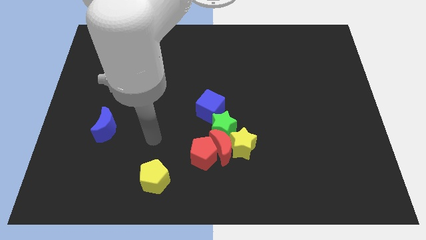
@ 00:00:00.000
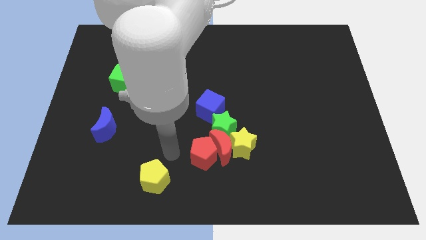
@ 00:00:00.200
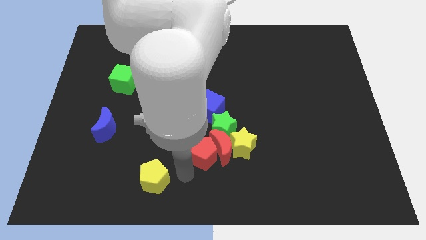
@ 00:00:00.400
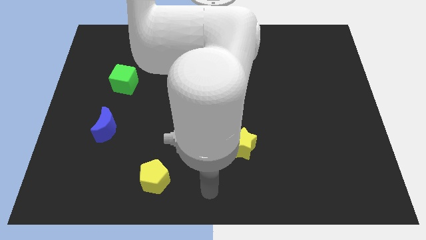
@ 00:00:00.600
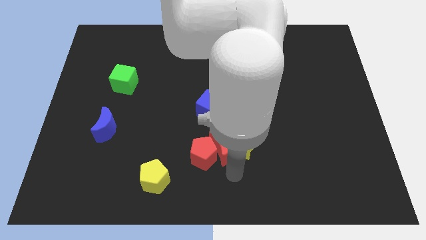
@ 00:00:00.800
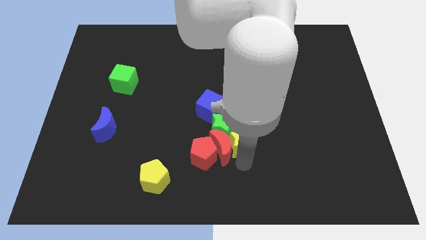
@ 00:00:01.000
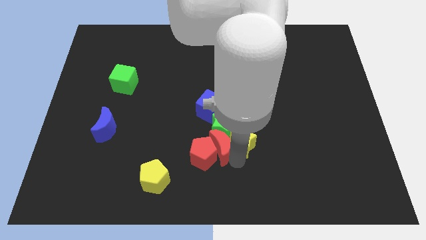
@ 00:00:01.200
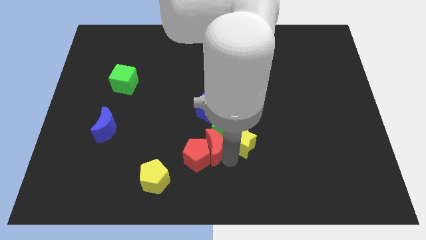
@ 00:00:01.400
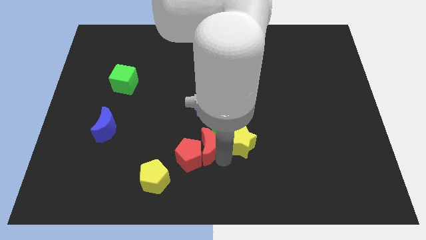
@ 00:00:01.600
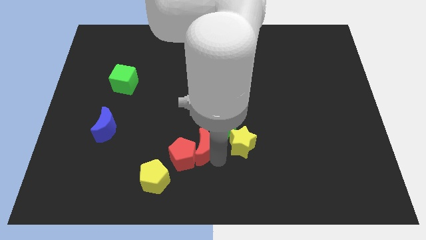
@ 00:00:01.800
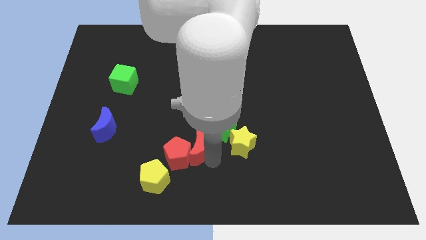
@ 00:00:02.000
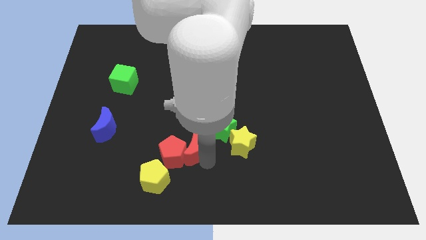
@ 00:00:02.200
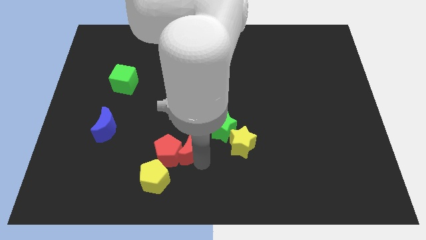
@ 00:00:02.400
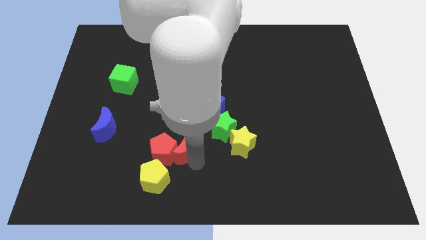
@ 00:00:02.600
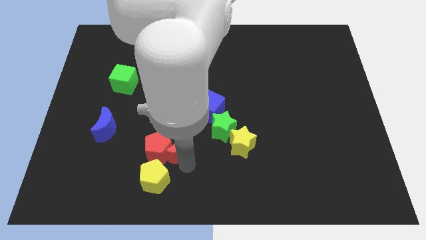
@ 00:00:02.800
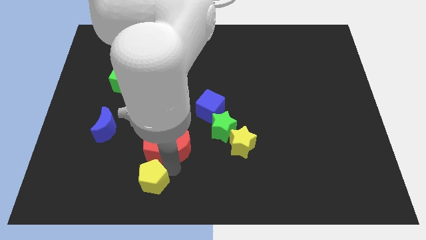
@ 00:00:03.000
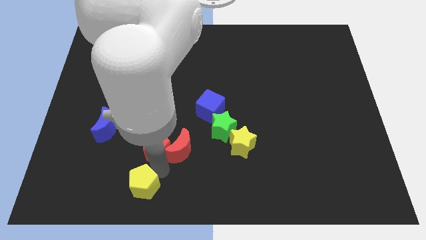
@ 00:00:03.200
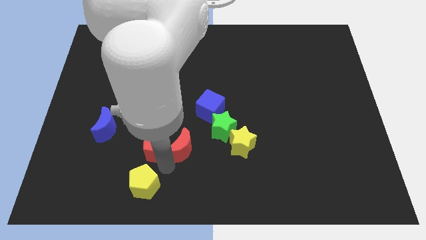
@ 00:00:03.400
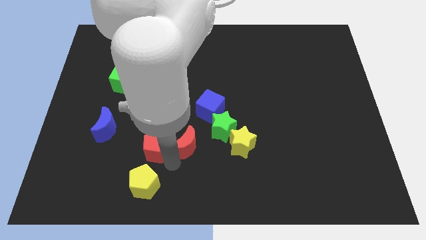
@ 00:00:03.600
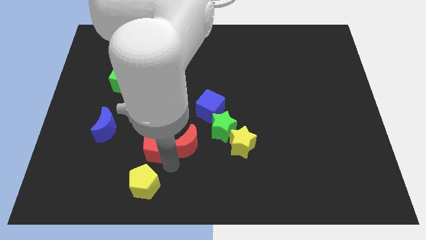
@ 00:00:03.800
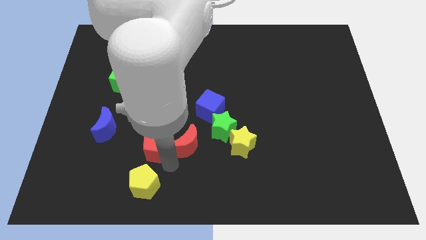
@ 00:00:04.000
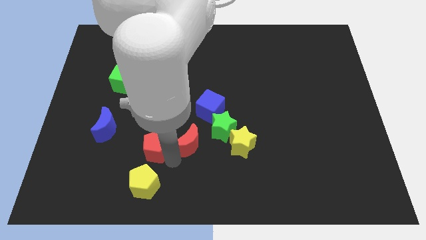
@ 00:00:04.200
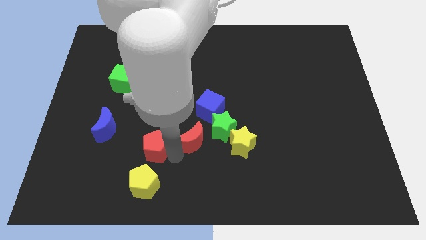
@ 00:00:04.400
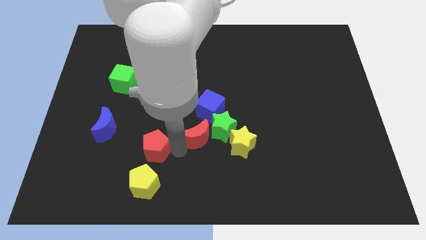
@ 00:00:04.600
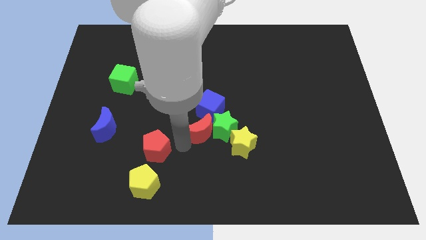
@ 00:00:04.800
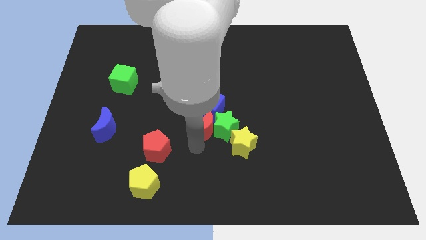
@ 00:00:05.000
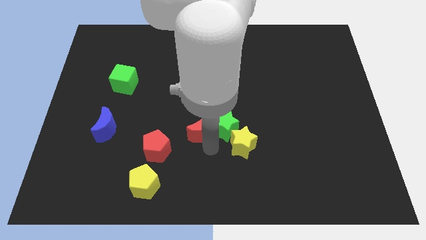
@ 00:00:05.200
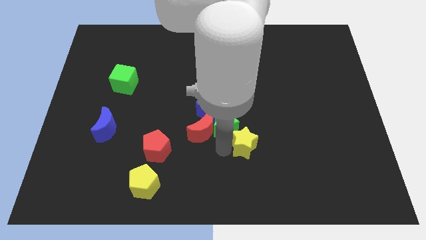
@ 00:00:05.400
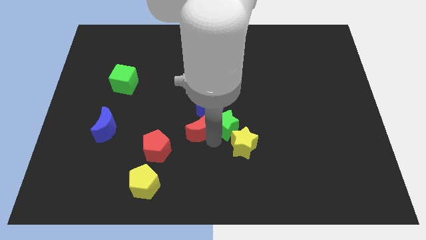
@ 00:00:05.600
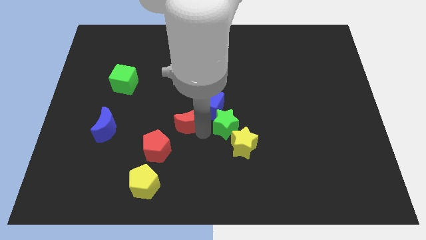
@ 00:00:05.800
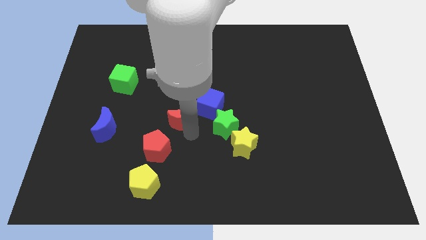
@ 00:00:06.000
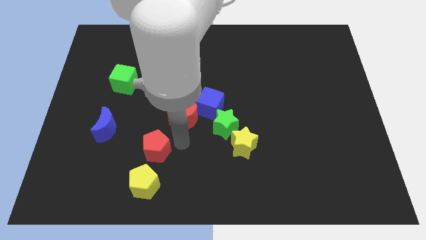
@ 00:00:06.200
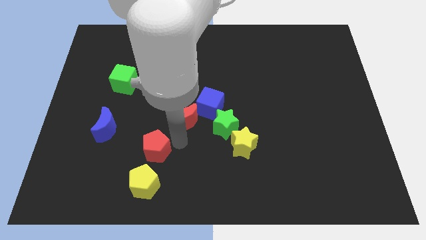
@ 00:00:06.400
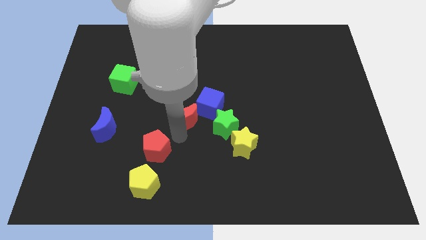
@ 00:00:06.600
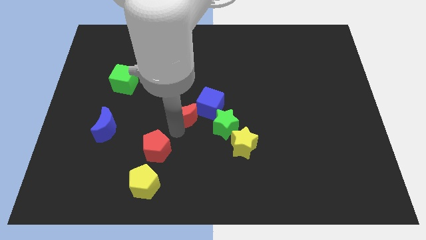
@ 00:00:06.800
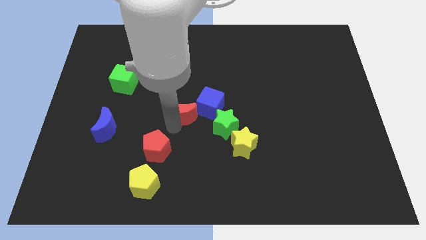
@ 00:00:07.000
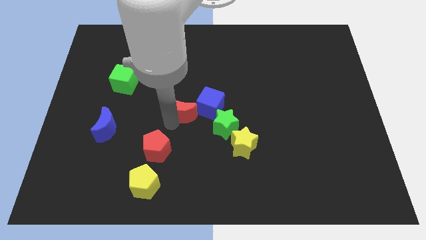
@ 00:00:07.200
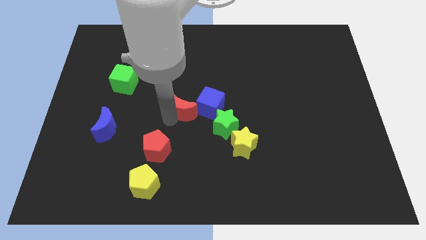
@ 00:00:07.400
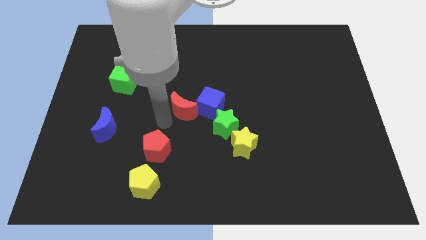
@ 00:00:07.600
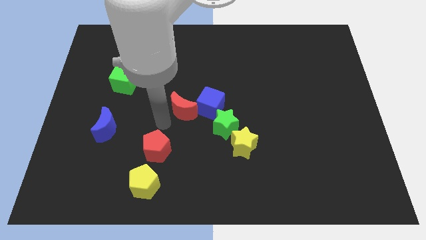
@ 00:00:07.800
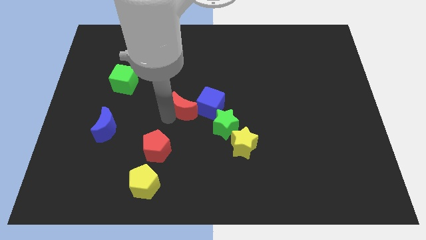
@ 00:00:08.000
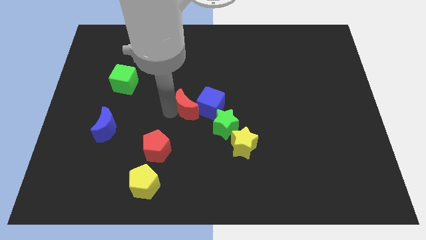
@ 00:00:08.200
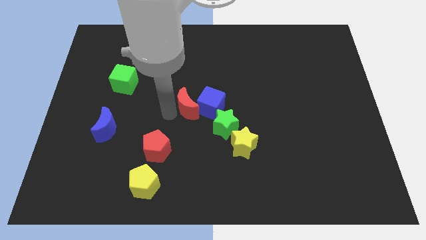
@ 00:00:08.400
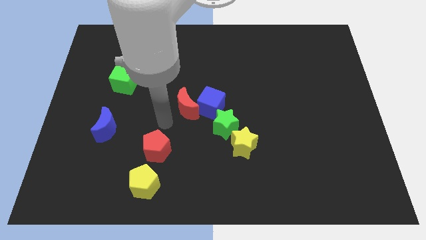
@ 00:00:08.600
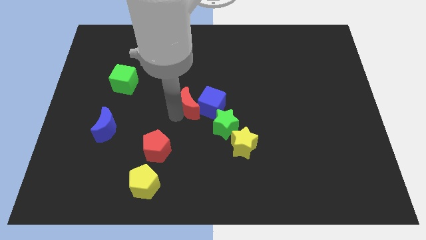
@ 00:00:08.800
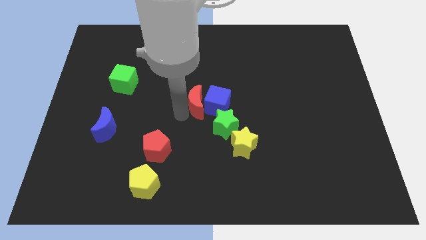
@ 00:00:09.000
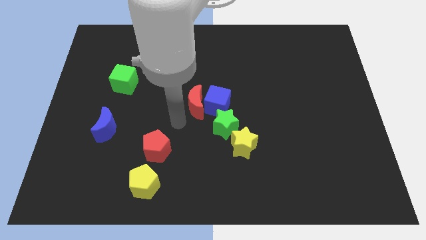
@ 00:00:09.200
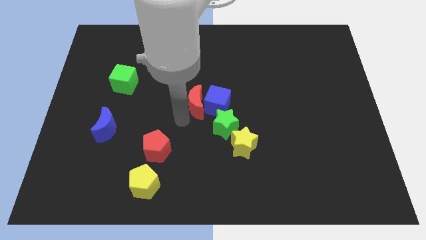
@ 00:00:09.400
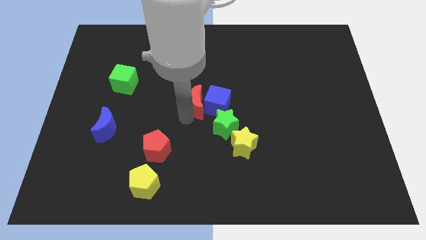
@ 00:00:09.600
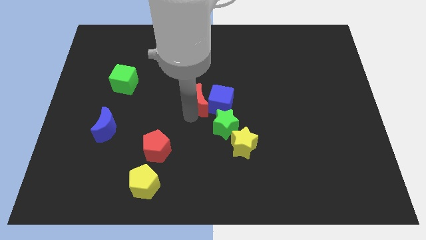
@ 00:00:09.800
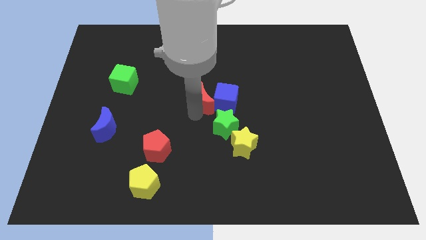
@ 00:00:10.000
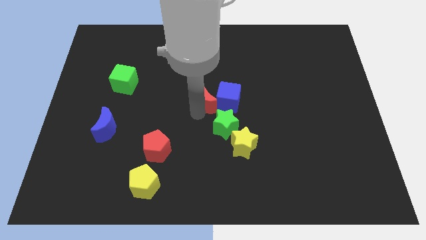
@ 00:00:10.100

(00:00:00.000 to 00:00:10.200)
put the red moon above the green star

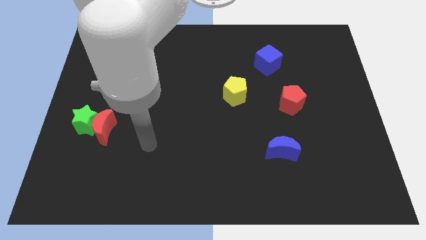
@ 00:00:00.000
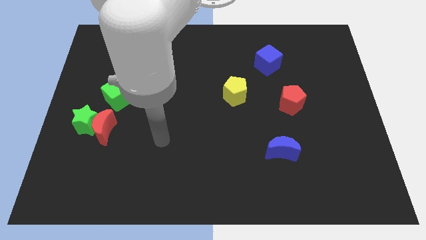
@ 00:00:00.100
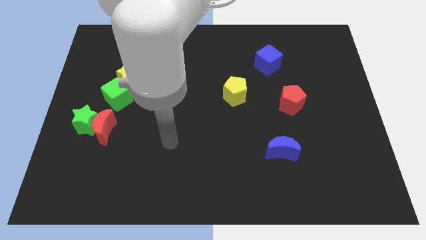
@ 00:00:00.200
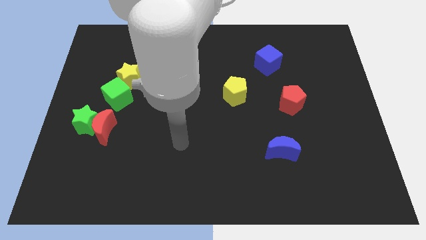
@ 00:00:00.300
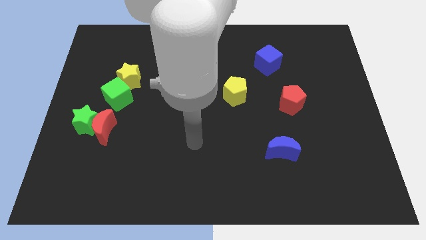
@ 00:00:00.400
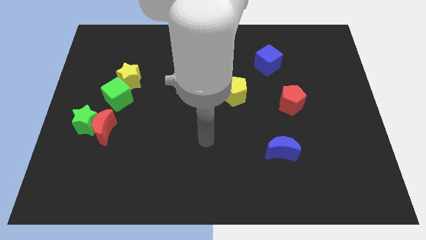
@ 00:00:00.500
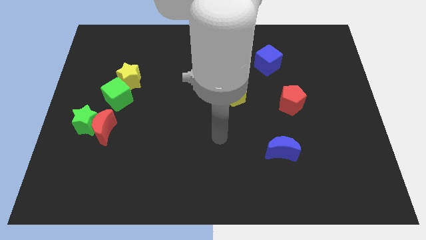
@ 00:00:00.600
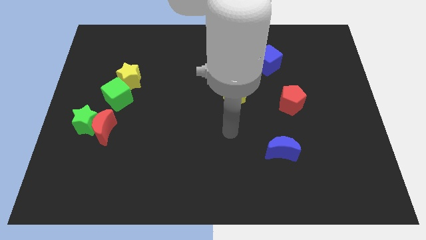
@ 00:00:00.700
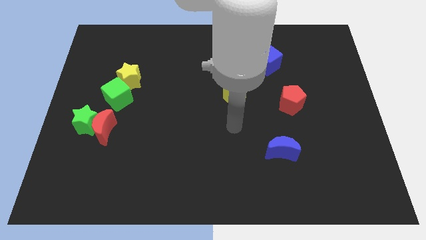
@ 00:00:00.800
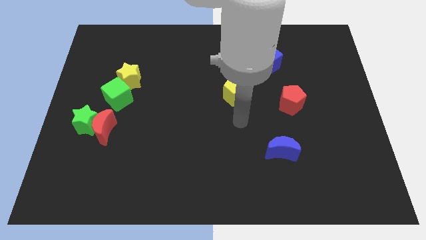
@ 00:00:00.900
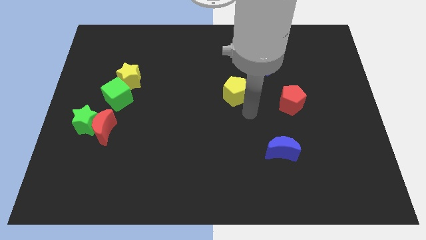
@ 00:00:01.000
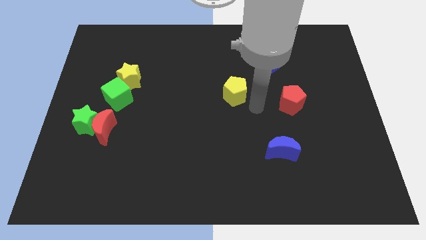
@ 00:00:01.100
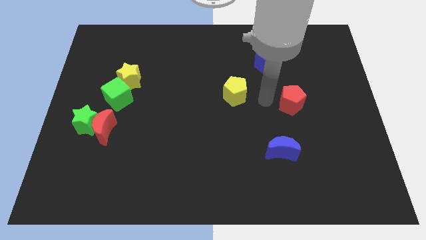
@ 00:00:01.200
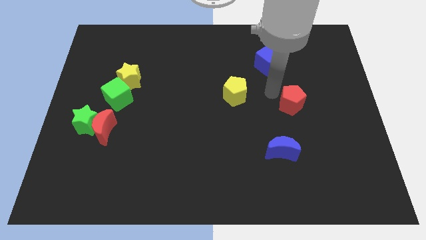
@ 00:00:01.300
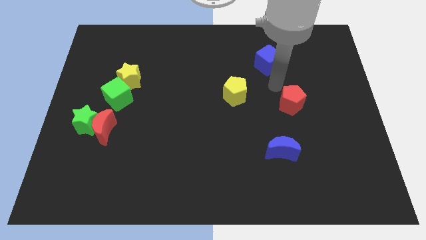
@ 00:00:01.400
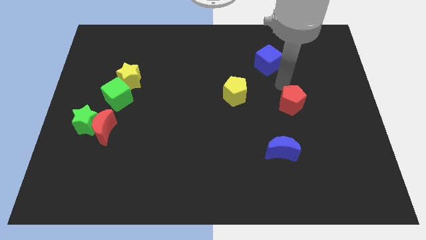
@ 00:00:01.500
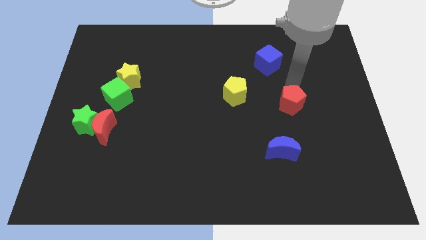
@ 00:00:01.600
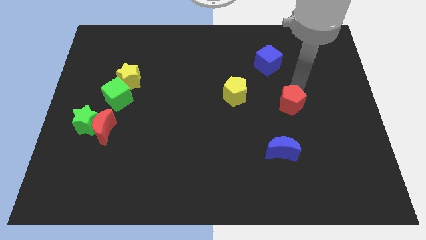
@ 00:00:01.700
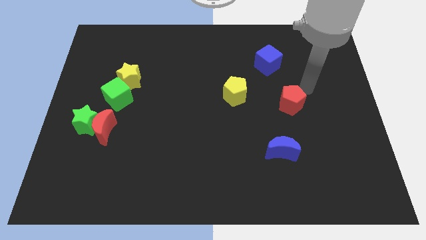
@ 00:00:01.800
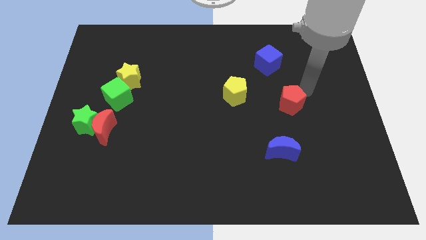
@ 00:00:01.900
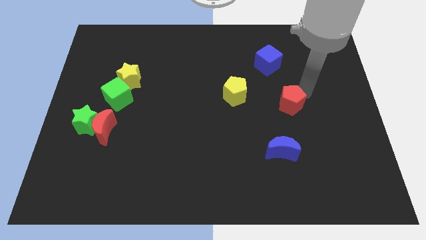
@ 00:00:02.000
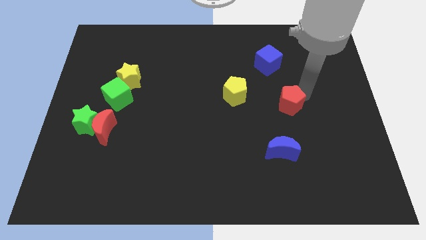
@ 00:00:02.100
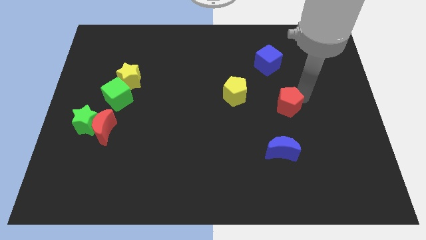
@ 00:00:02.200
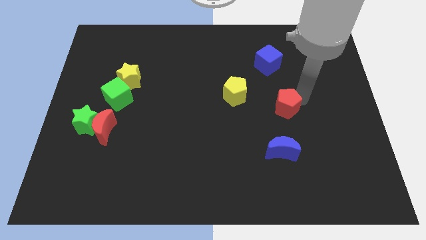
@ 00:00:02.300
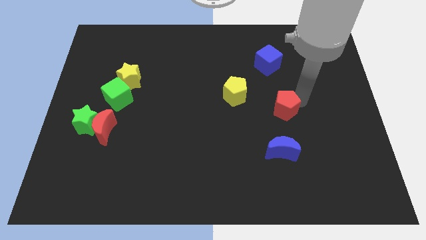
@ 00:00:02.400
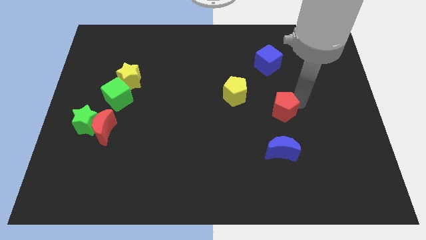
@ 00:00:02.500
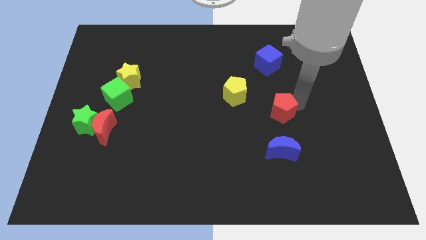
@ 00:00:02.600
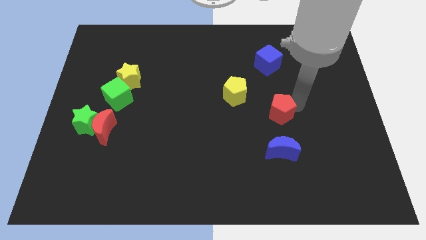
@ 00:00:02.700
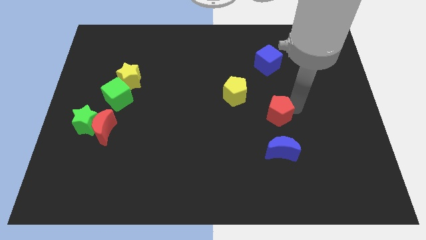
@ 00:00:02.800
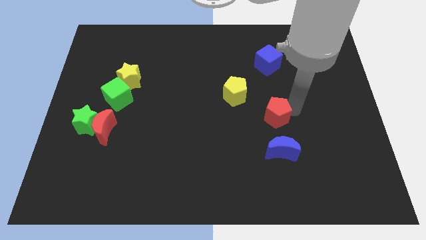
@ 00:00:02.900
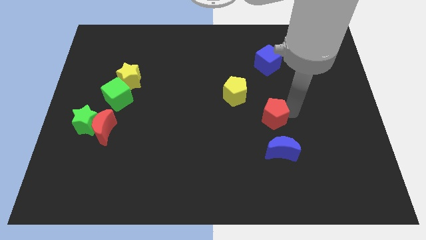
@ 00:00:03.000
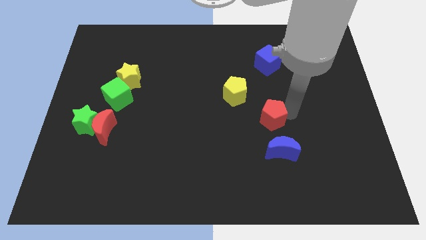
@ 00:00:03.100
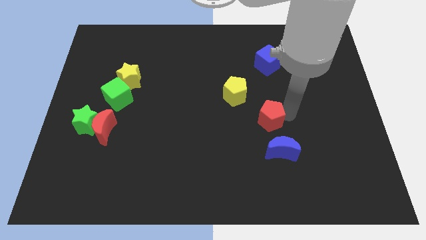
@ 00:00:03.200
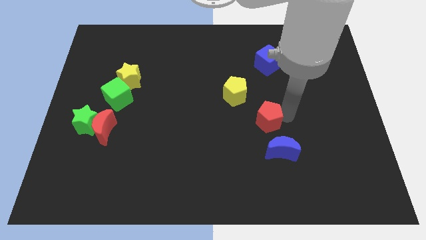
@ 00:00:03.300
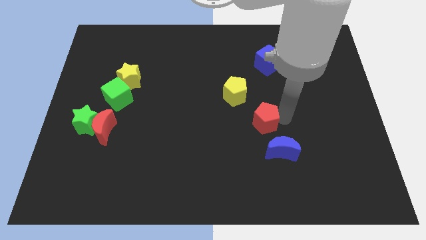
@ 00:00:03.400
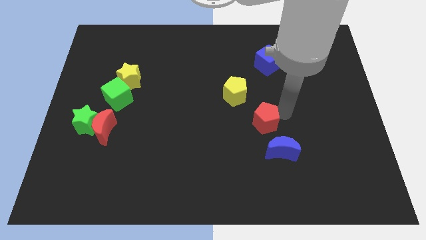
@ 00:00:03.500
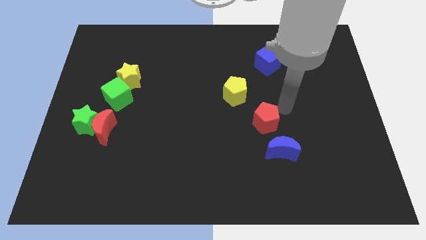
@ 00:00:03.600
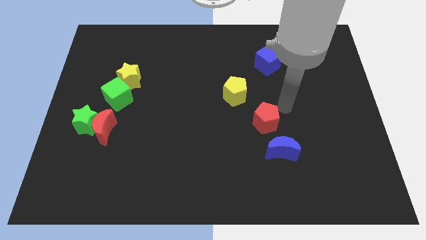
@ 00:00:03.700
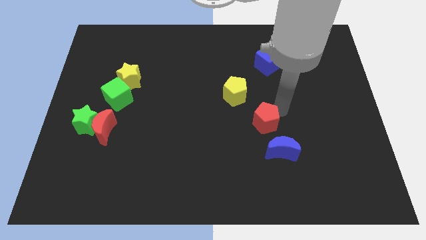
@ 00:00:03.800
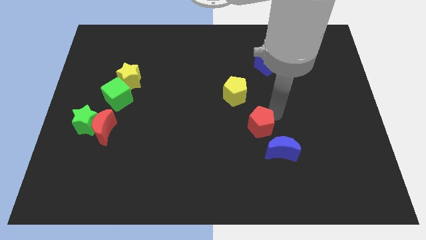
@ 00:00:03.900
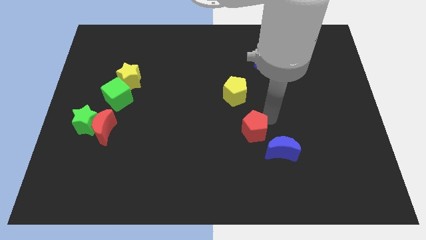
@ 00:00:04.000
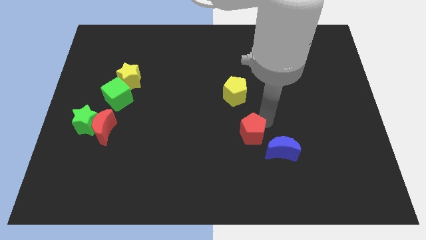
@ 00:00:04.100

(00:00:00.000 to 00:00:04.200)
move the red pentagon to the left of the blue moon
